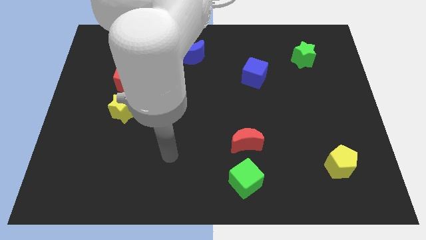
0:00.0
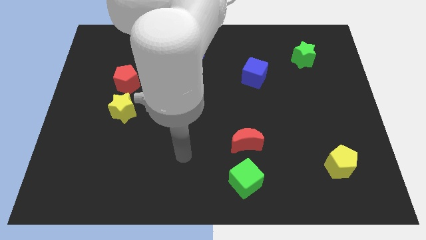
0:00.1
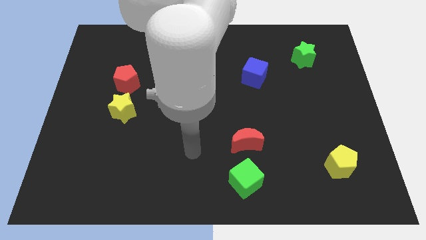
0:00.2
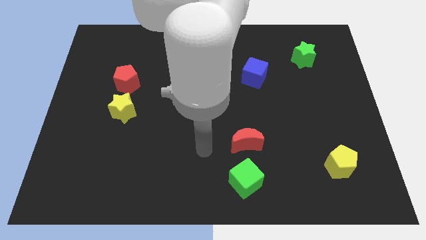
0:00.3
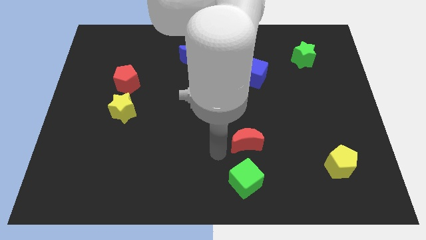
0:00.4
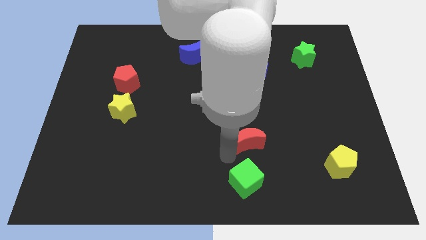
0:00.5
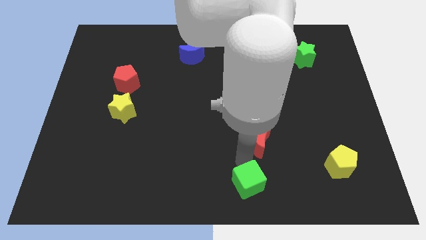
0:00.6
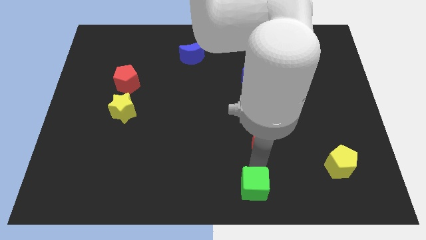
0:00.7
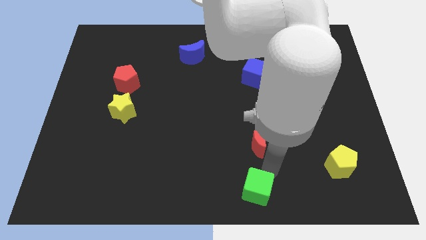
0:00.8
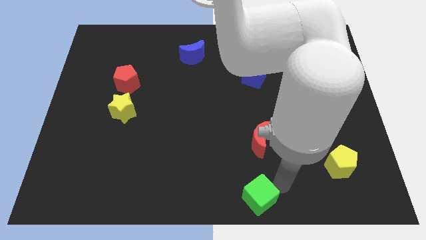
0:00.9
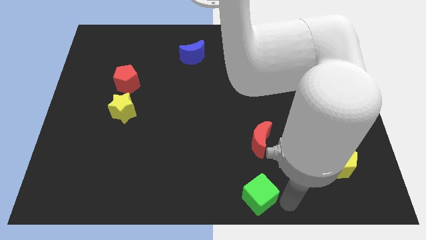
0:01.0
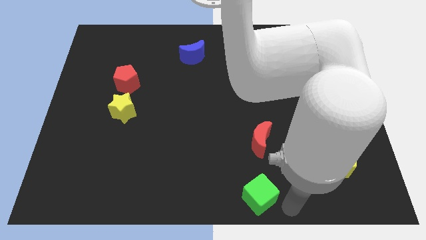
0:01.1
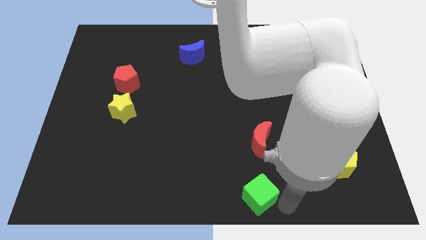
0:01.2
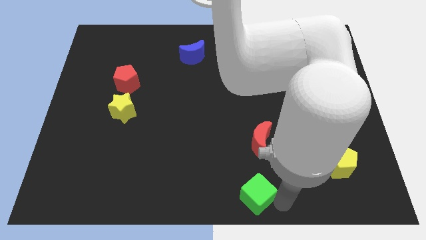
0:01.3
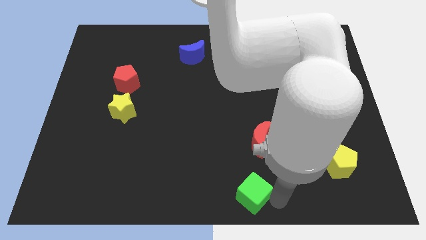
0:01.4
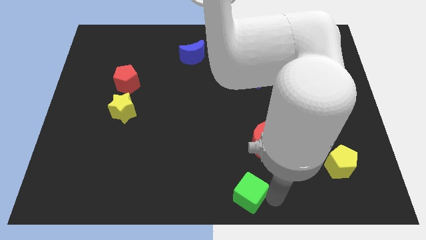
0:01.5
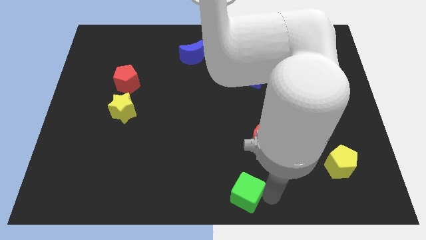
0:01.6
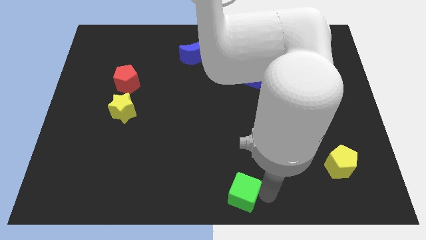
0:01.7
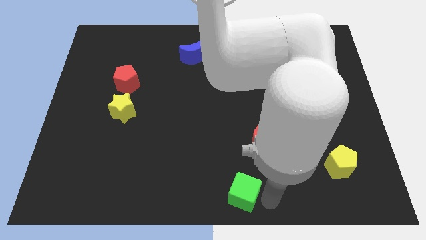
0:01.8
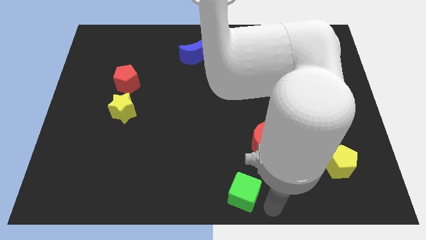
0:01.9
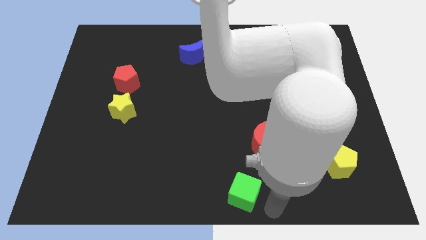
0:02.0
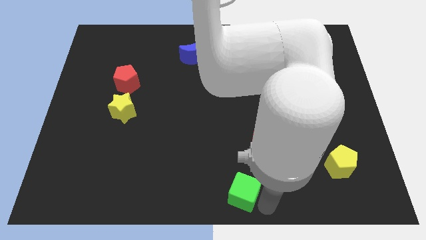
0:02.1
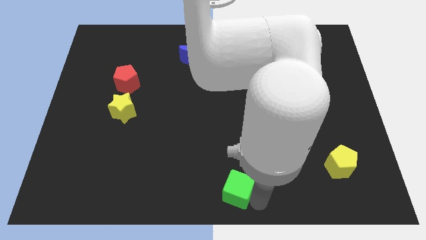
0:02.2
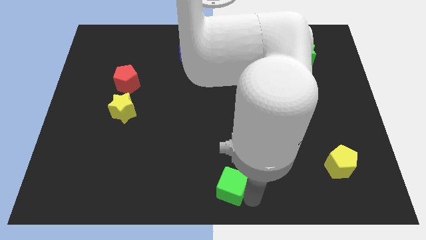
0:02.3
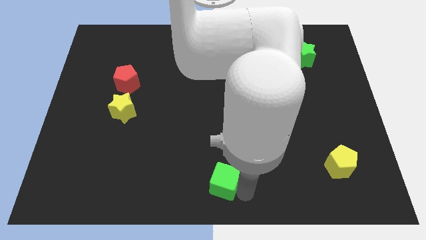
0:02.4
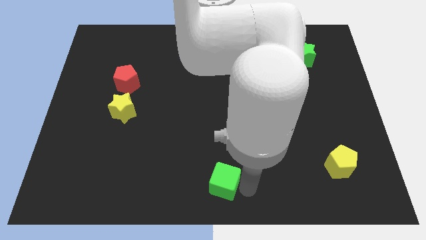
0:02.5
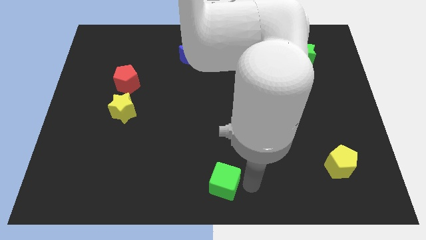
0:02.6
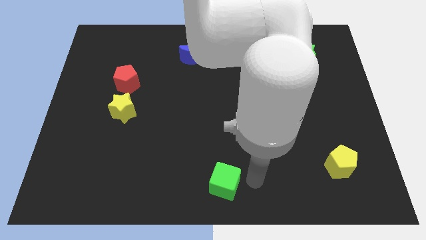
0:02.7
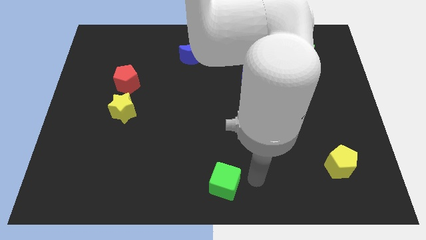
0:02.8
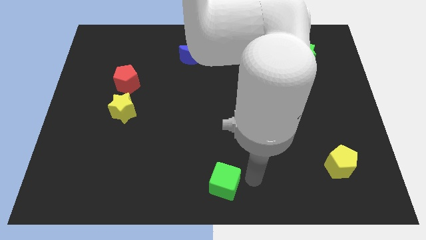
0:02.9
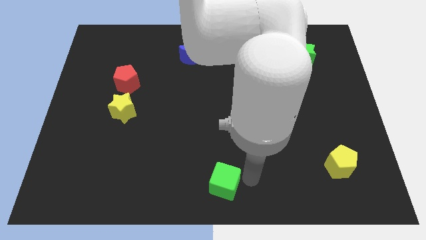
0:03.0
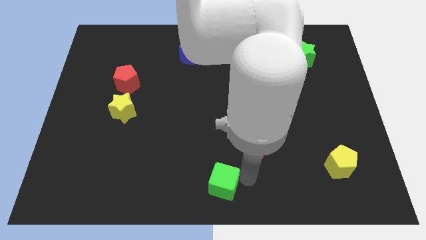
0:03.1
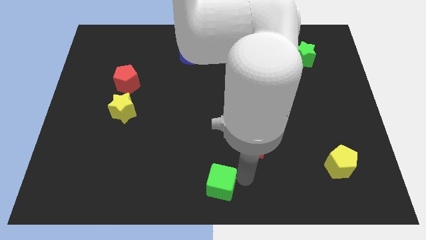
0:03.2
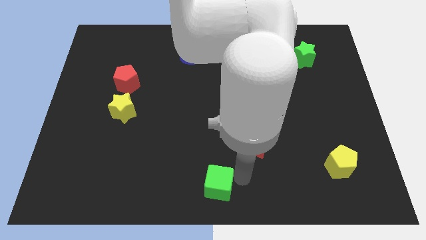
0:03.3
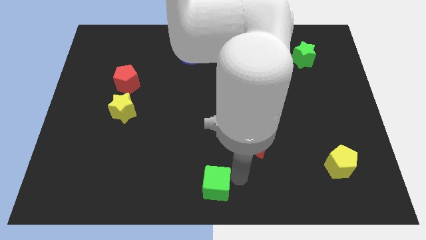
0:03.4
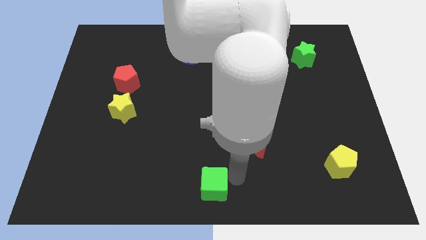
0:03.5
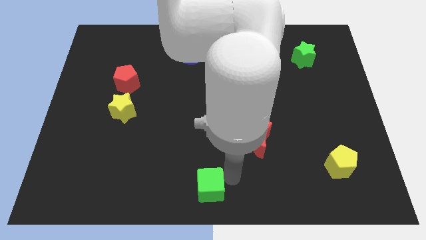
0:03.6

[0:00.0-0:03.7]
slide the green cube slightly left

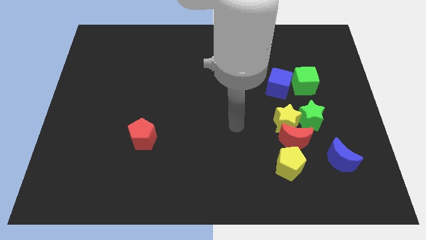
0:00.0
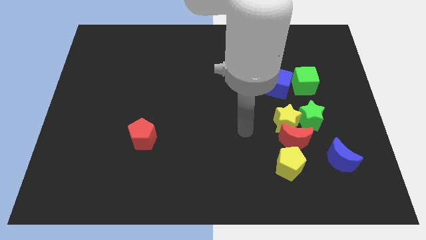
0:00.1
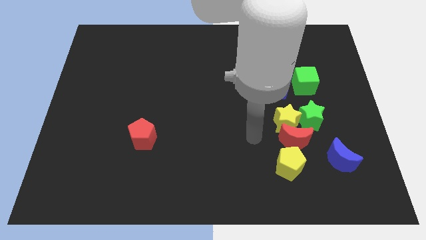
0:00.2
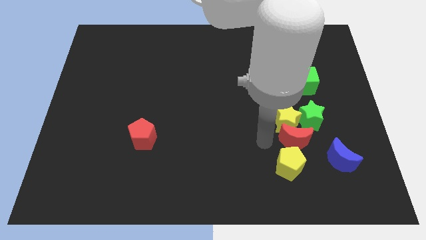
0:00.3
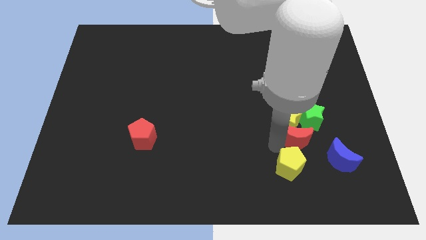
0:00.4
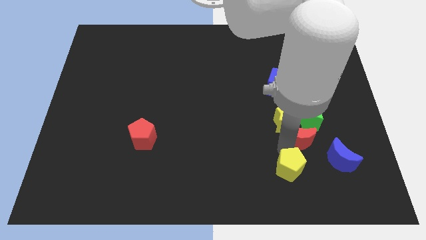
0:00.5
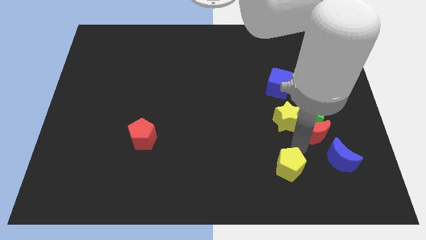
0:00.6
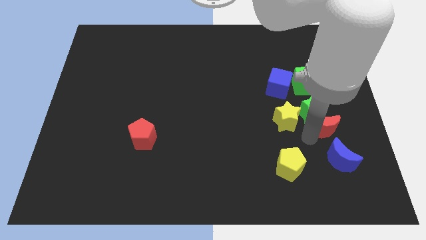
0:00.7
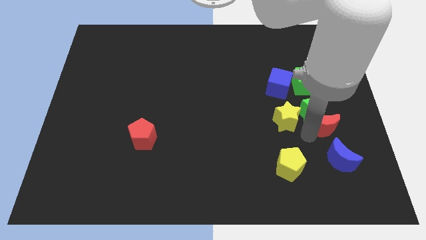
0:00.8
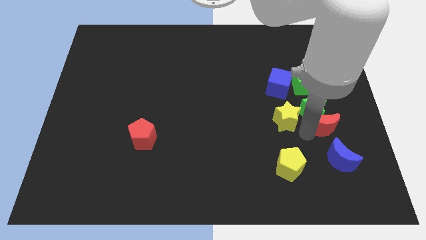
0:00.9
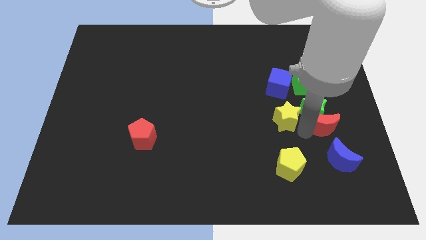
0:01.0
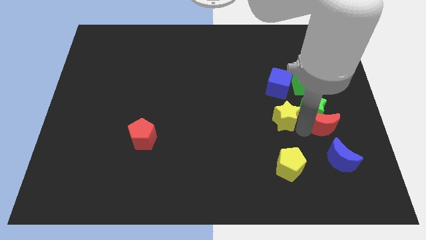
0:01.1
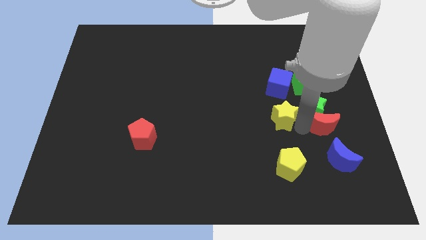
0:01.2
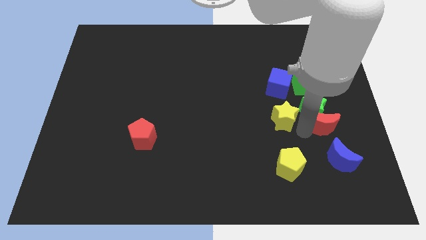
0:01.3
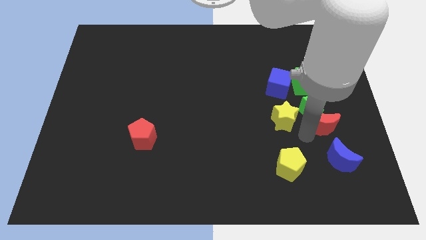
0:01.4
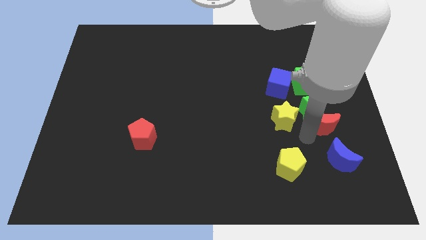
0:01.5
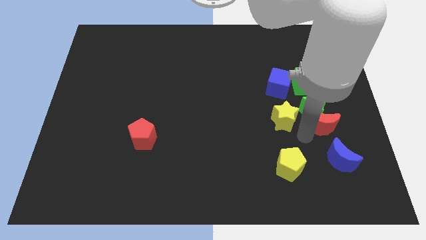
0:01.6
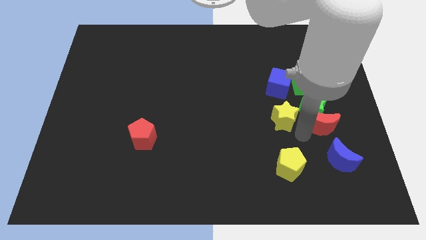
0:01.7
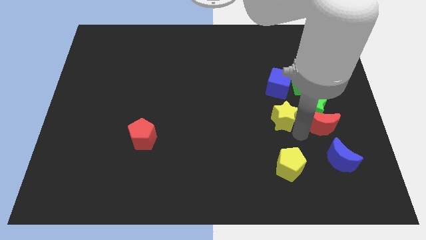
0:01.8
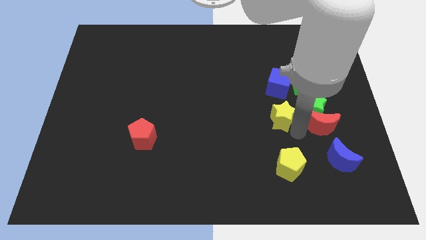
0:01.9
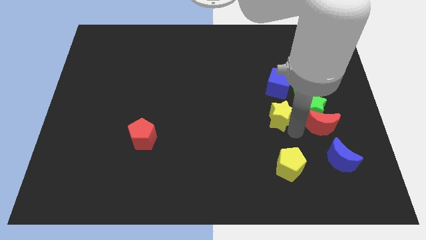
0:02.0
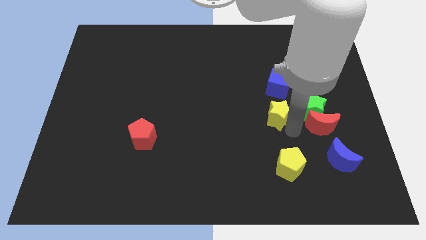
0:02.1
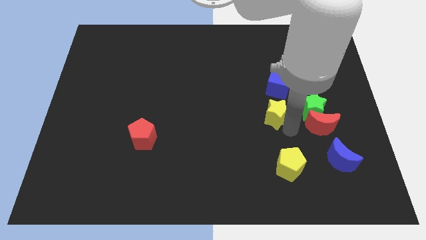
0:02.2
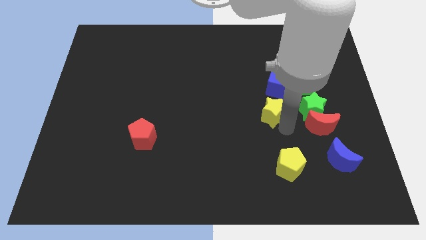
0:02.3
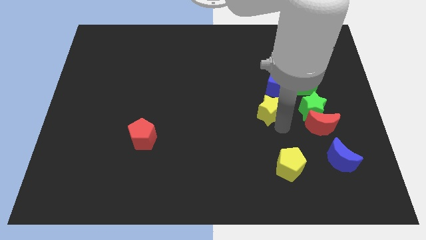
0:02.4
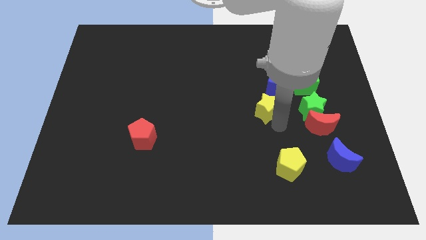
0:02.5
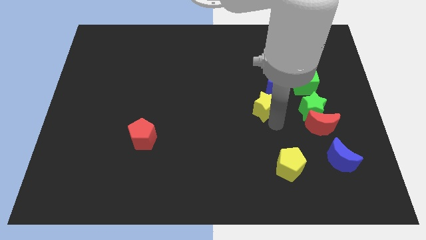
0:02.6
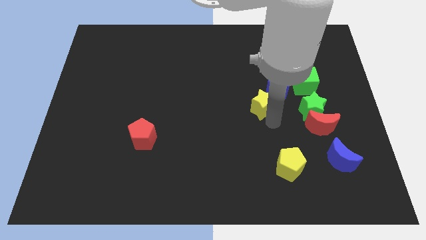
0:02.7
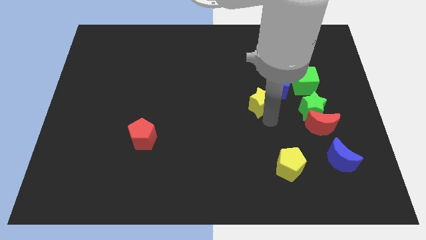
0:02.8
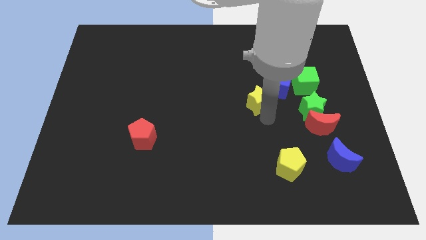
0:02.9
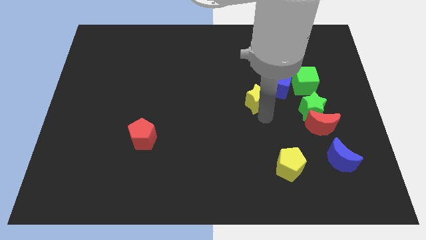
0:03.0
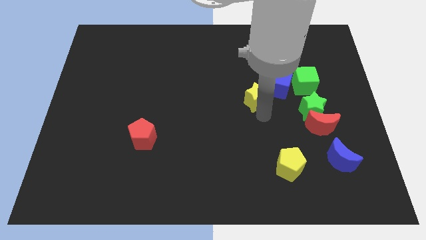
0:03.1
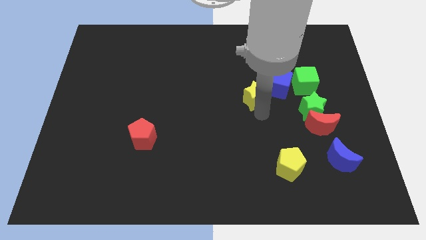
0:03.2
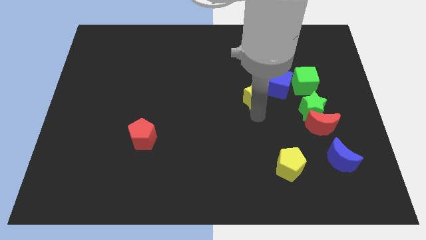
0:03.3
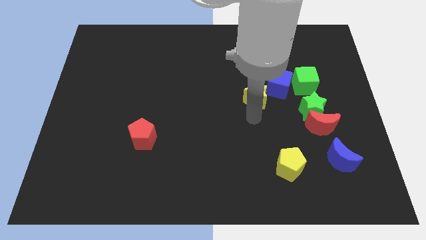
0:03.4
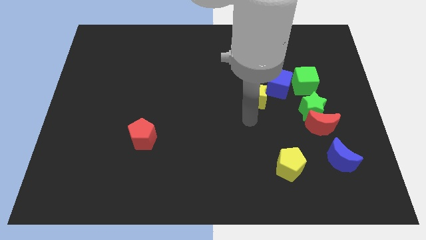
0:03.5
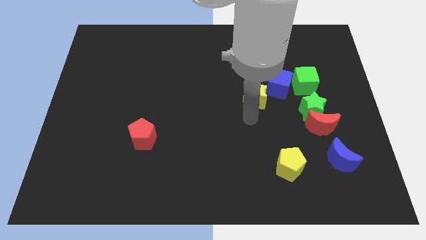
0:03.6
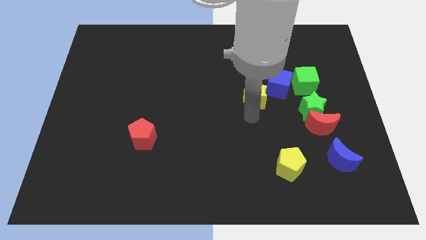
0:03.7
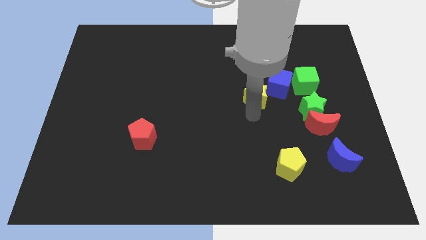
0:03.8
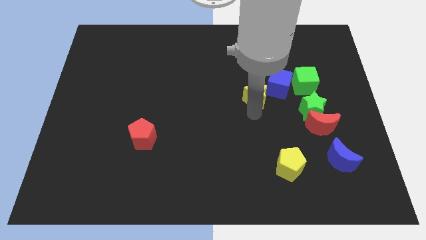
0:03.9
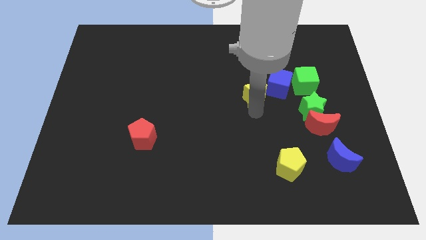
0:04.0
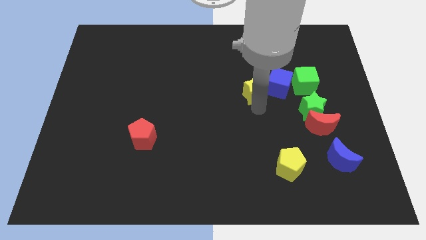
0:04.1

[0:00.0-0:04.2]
move the yellow star a little upwards

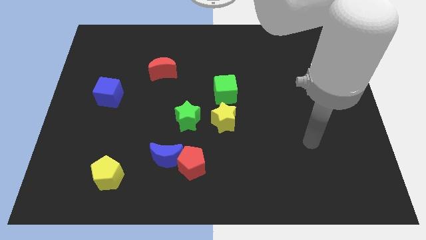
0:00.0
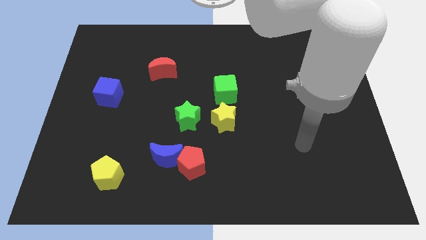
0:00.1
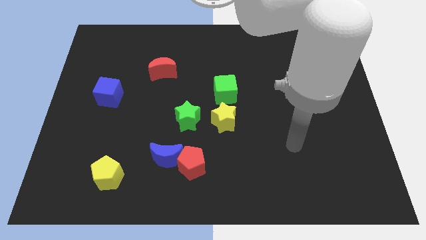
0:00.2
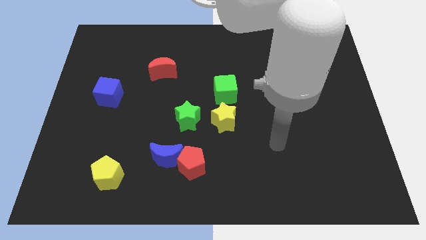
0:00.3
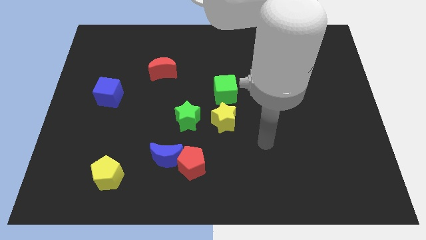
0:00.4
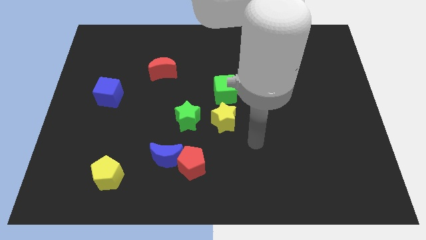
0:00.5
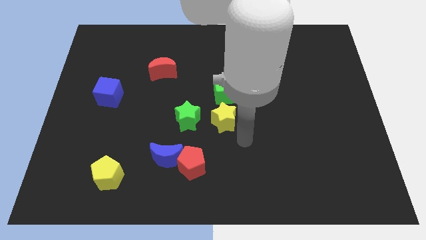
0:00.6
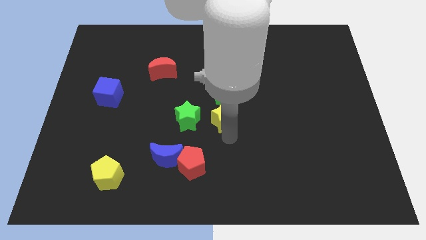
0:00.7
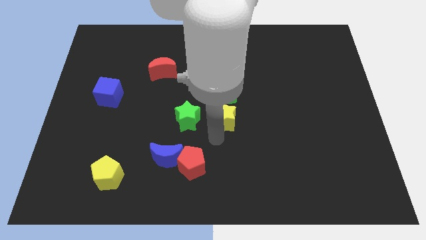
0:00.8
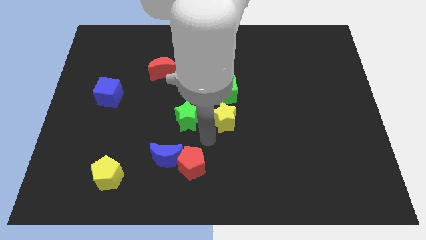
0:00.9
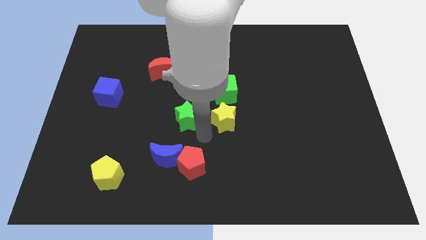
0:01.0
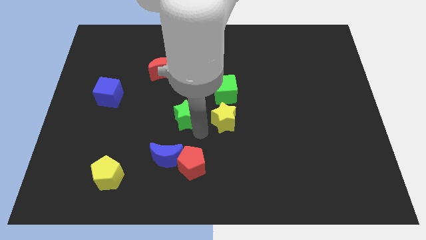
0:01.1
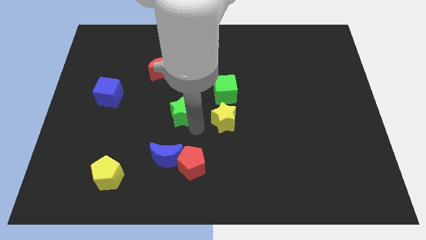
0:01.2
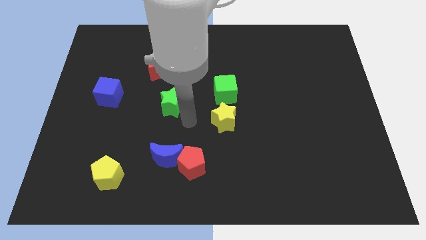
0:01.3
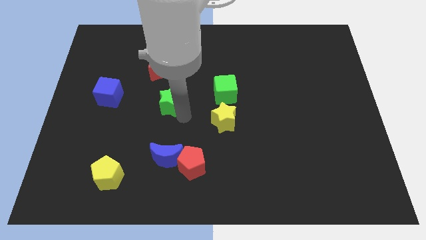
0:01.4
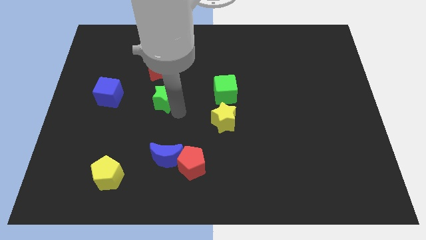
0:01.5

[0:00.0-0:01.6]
push the green star upwards and left slightly
